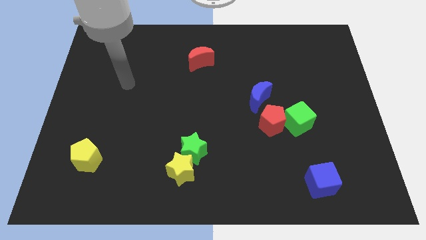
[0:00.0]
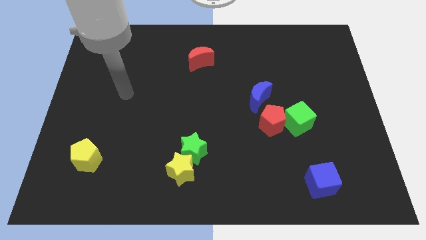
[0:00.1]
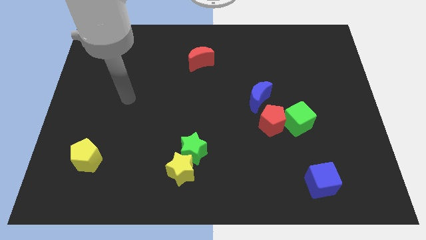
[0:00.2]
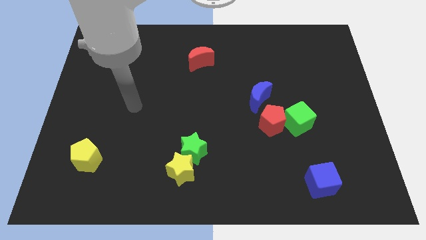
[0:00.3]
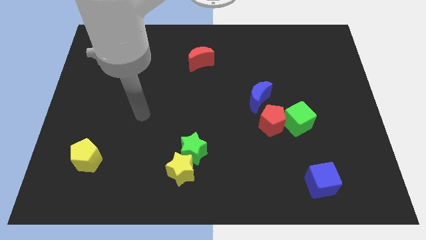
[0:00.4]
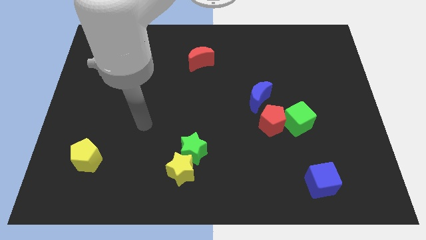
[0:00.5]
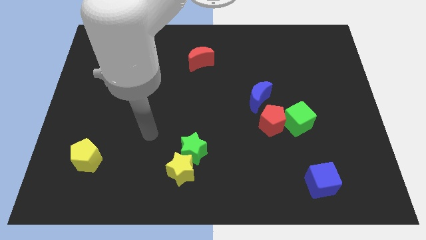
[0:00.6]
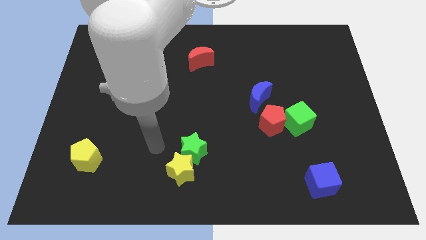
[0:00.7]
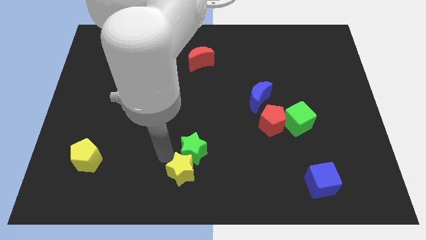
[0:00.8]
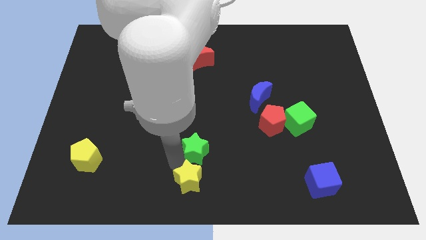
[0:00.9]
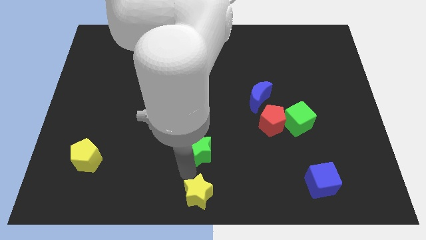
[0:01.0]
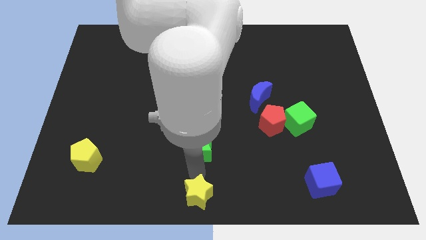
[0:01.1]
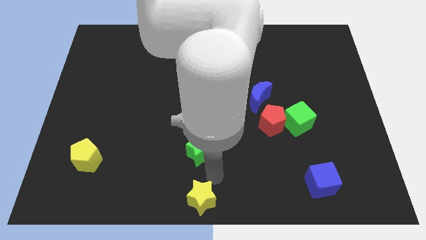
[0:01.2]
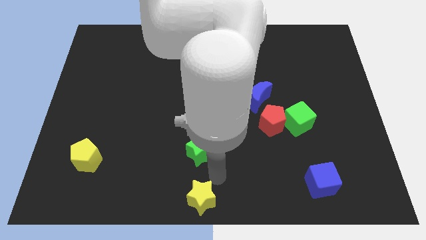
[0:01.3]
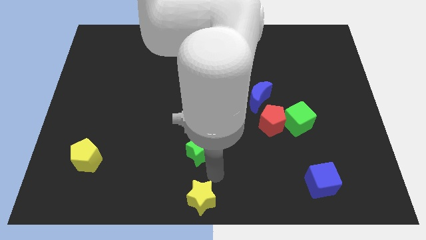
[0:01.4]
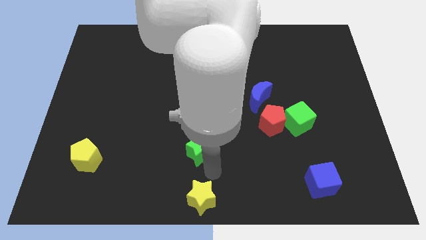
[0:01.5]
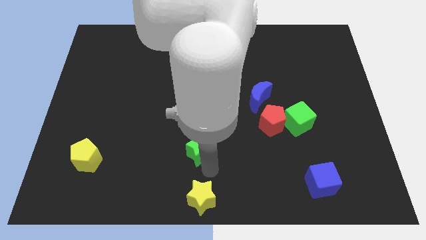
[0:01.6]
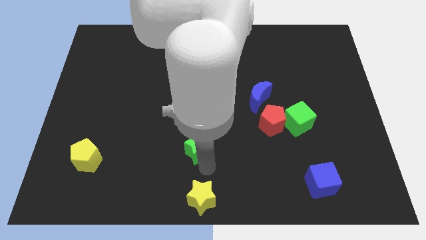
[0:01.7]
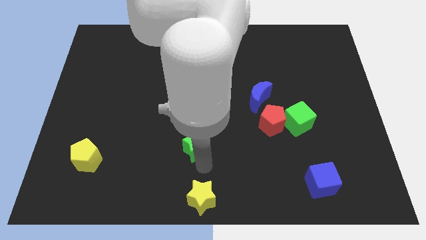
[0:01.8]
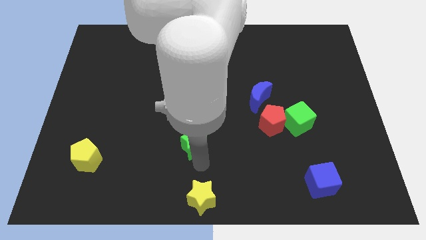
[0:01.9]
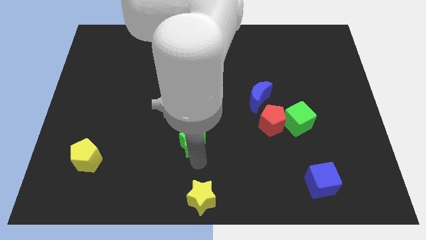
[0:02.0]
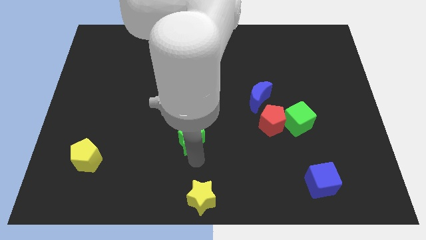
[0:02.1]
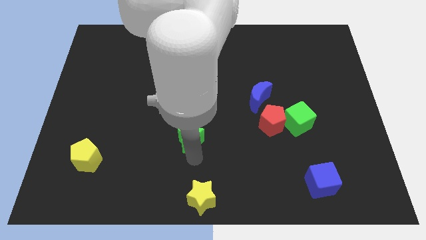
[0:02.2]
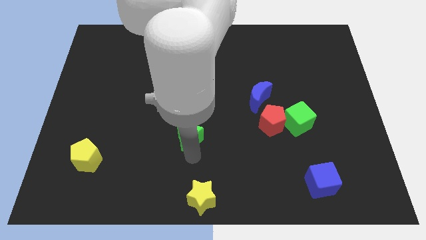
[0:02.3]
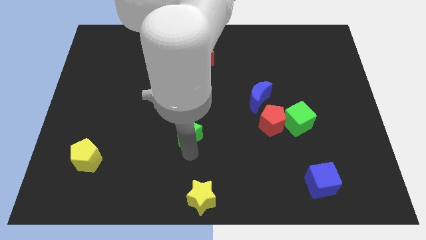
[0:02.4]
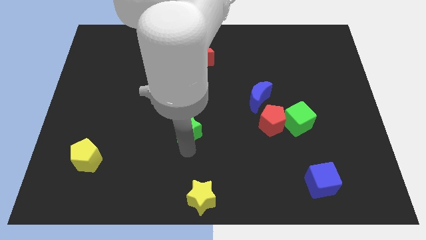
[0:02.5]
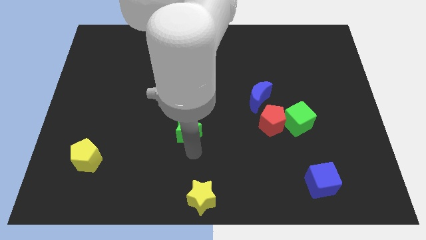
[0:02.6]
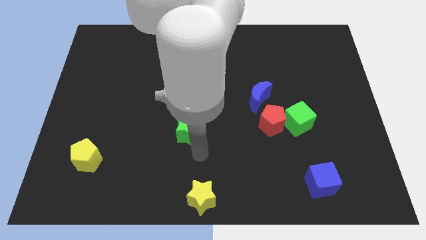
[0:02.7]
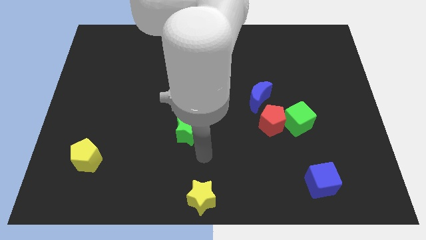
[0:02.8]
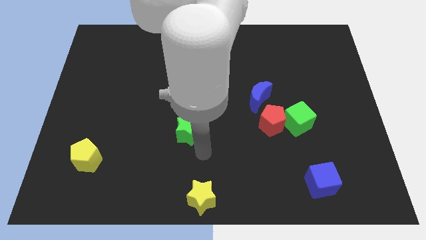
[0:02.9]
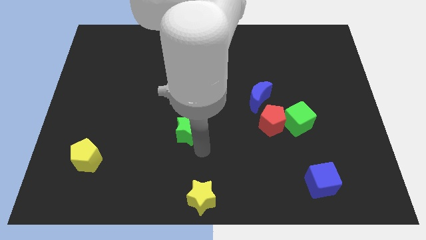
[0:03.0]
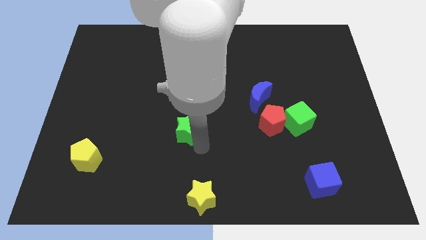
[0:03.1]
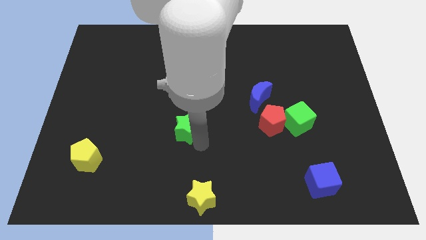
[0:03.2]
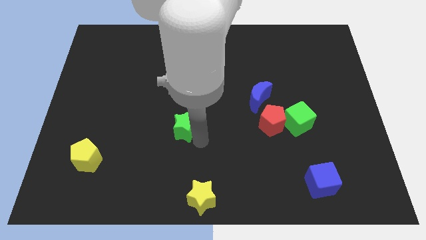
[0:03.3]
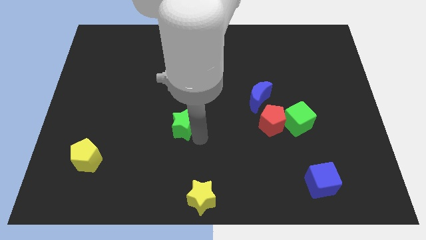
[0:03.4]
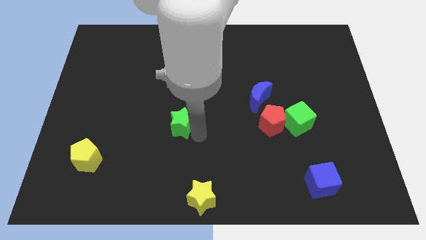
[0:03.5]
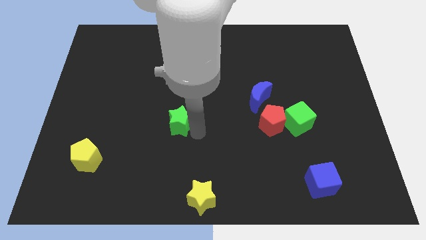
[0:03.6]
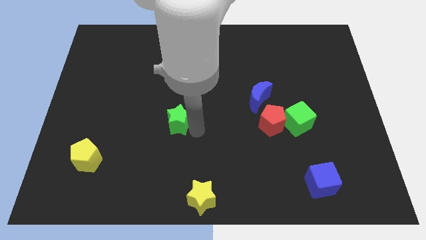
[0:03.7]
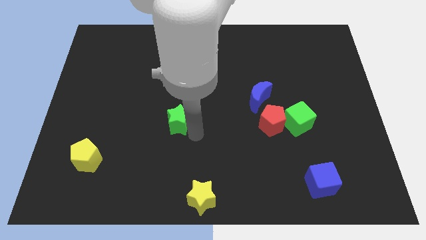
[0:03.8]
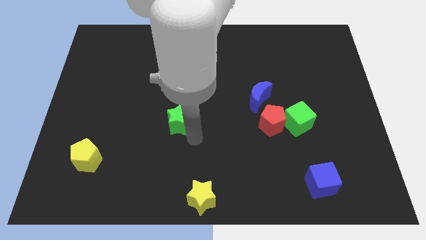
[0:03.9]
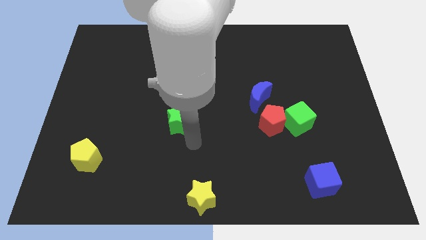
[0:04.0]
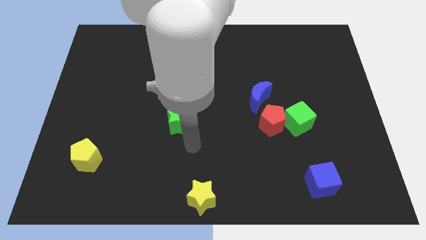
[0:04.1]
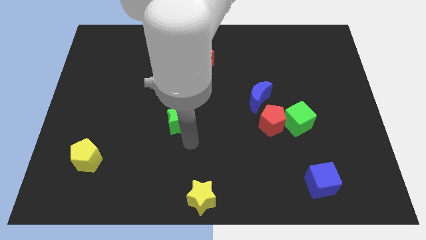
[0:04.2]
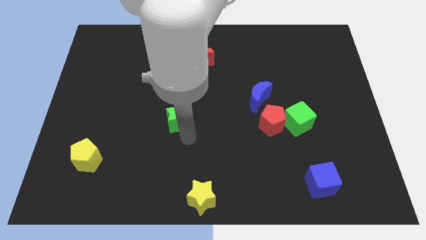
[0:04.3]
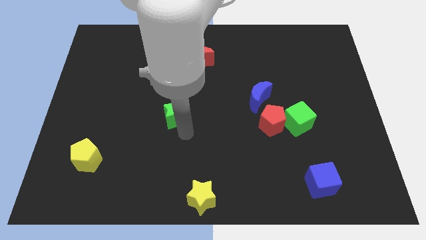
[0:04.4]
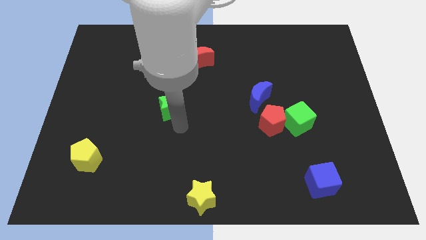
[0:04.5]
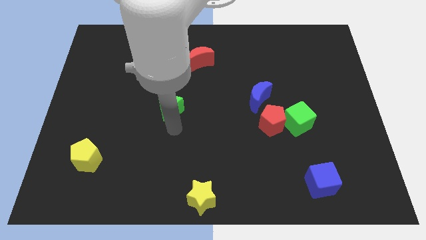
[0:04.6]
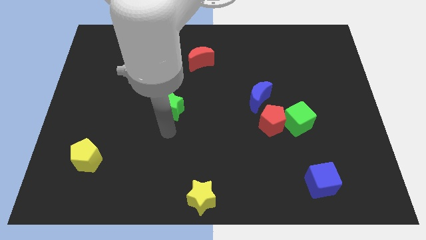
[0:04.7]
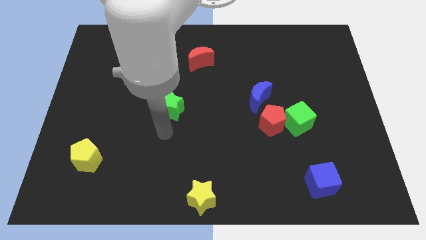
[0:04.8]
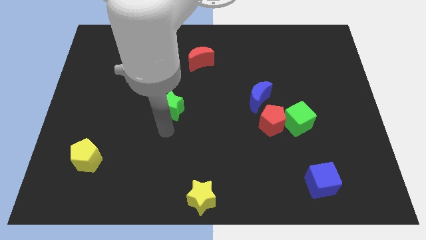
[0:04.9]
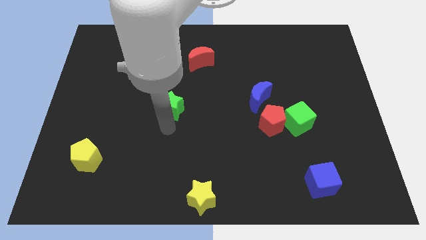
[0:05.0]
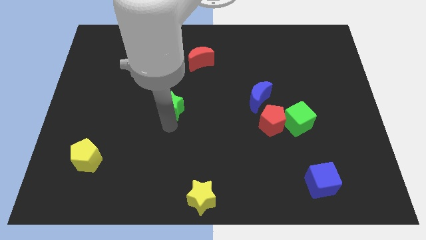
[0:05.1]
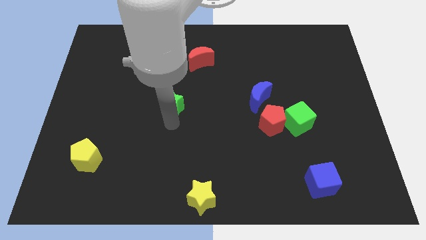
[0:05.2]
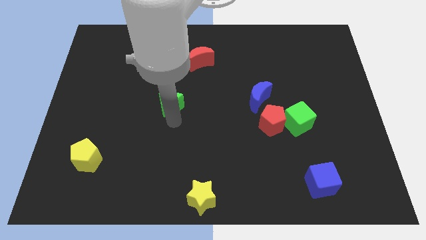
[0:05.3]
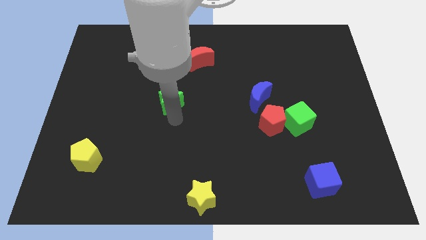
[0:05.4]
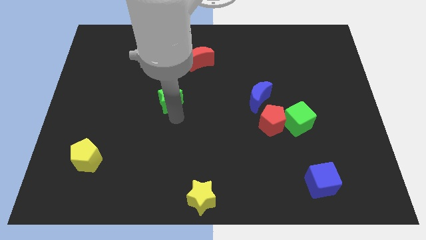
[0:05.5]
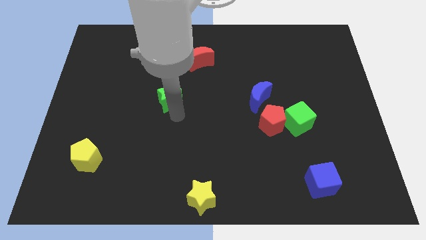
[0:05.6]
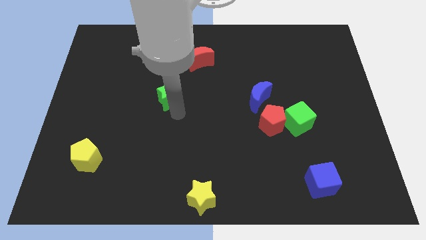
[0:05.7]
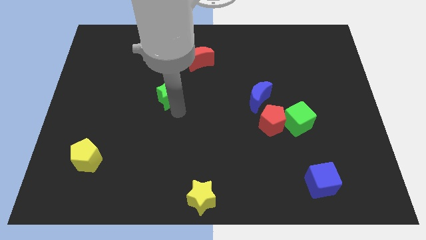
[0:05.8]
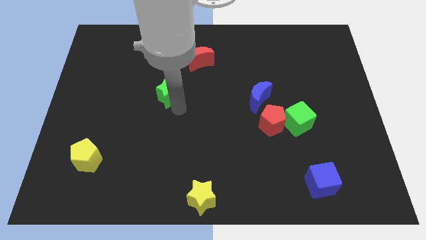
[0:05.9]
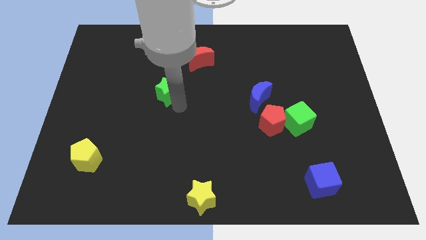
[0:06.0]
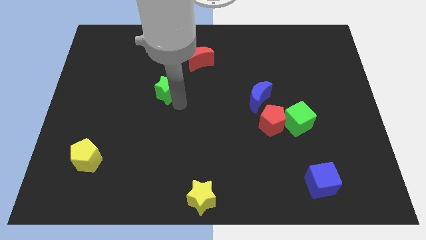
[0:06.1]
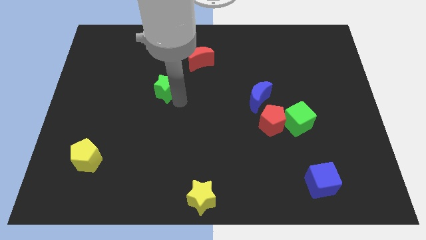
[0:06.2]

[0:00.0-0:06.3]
put the green star to the bottom left of the red moon
